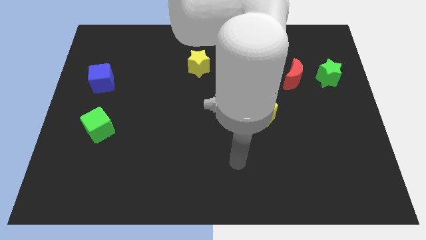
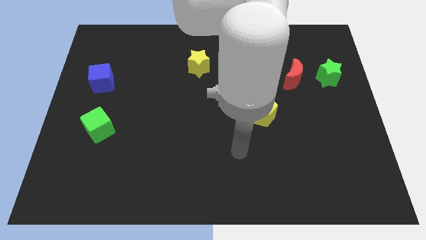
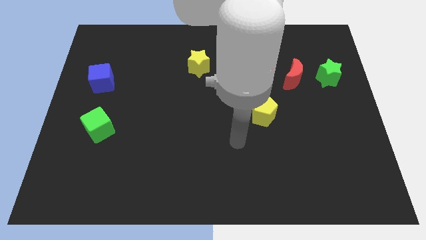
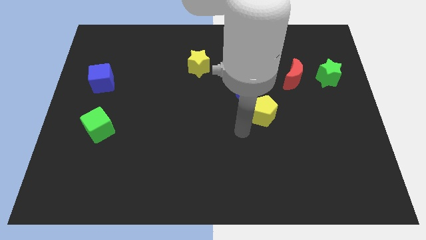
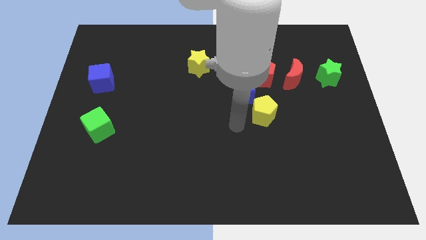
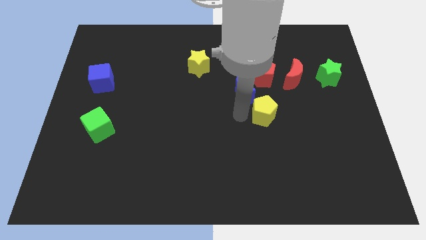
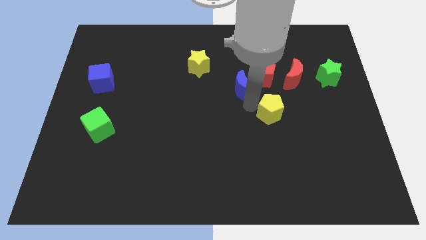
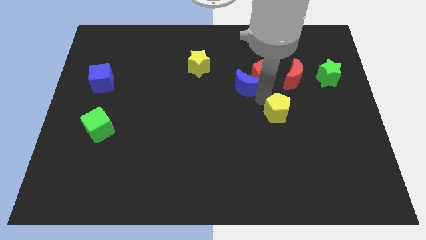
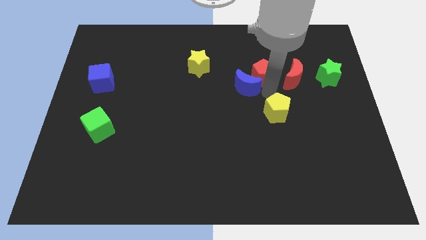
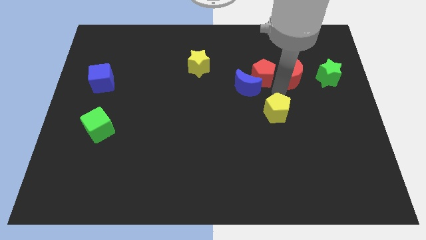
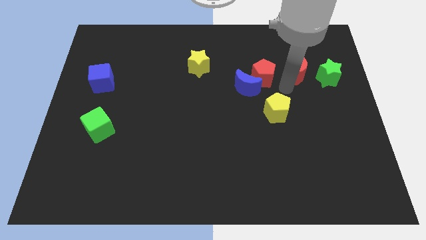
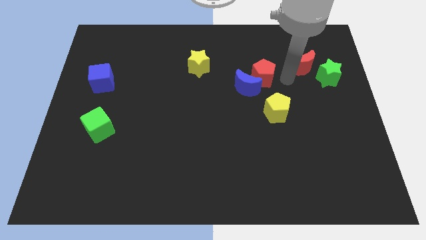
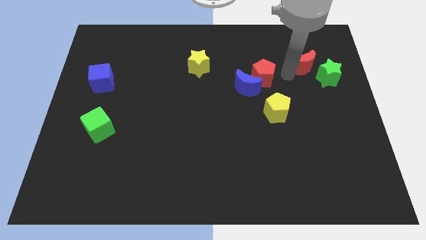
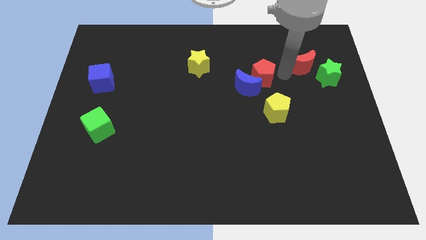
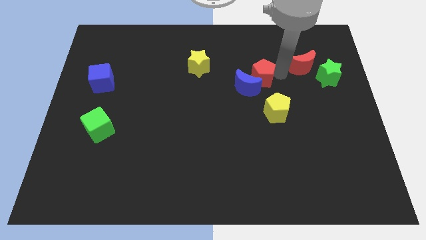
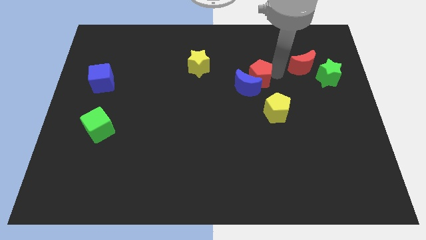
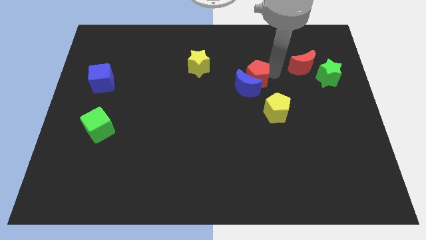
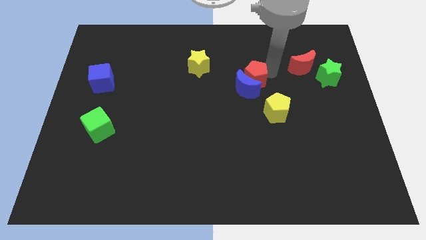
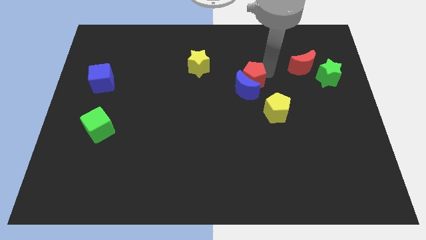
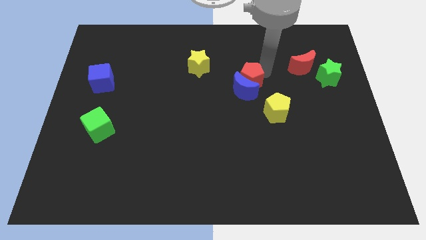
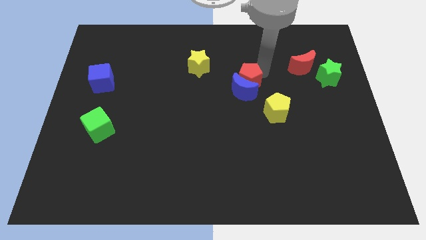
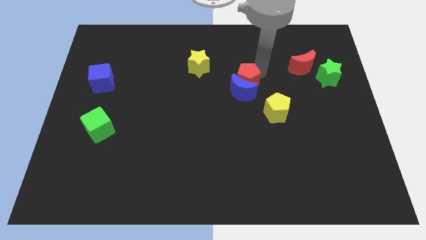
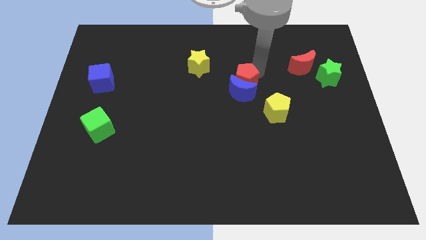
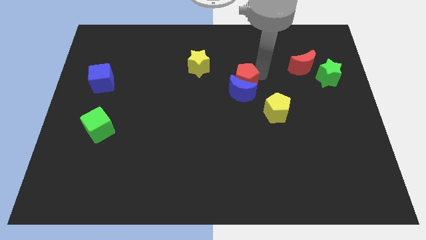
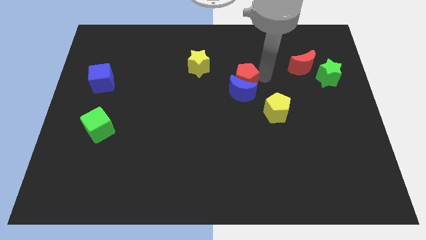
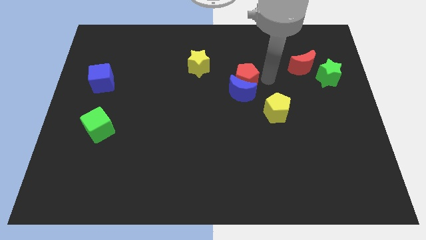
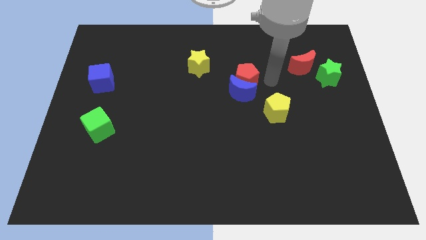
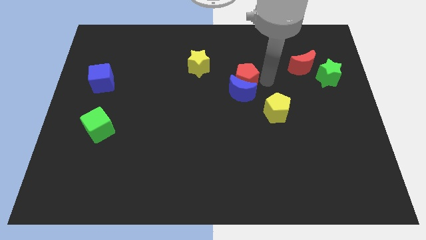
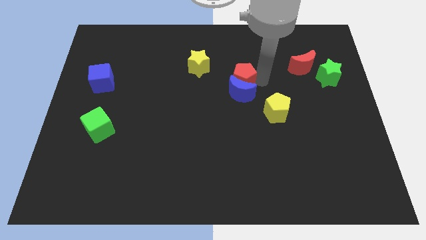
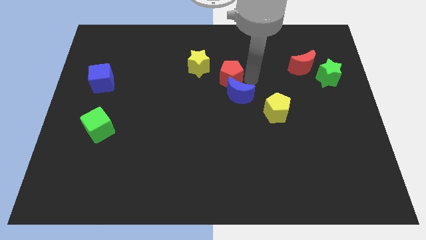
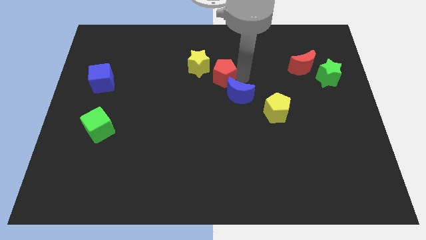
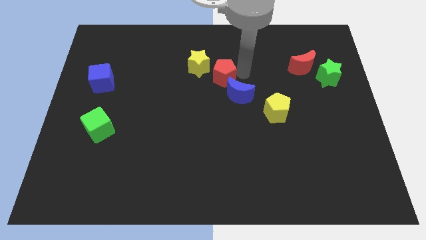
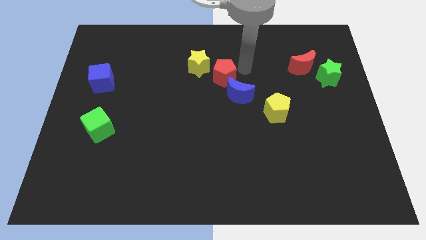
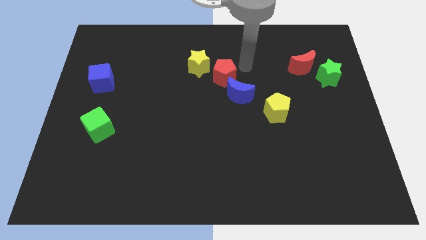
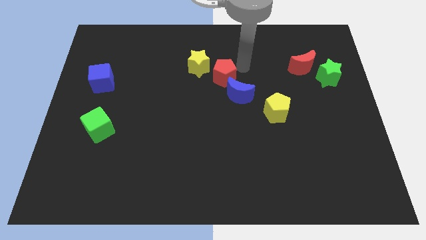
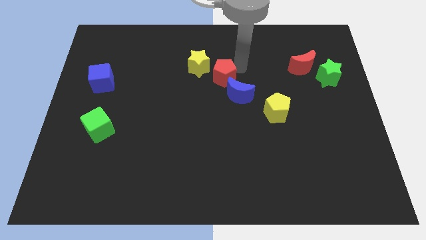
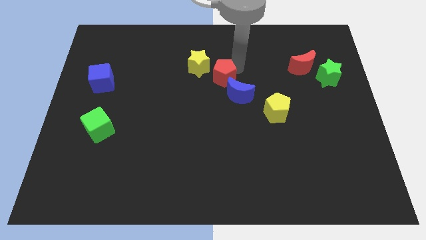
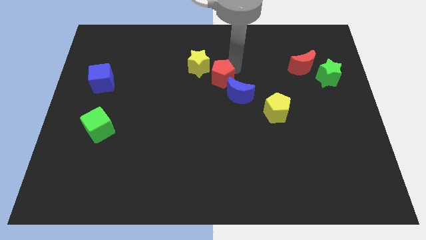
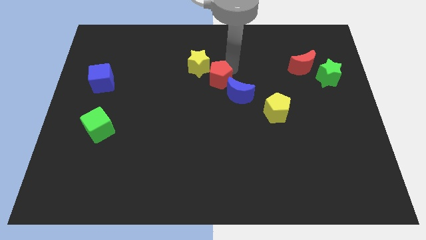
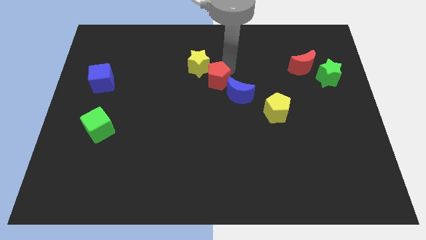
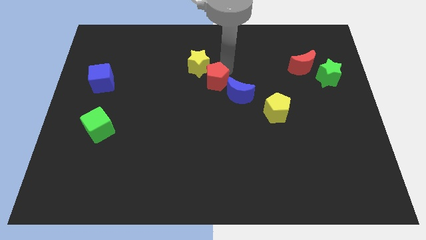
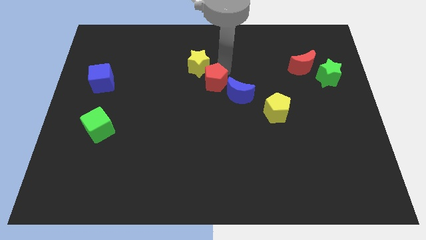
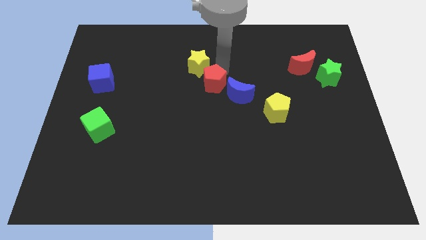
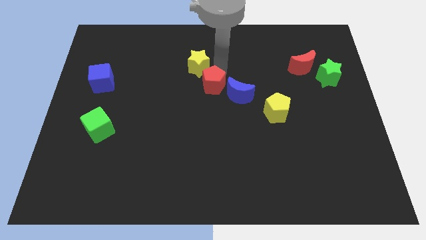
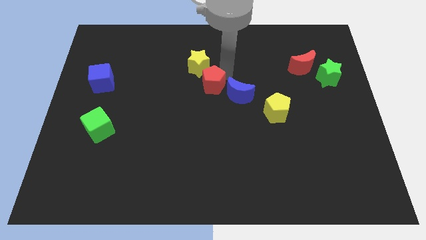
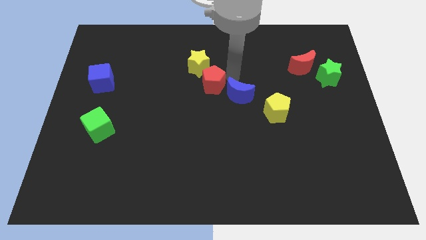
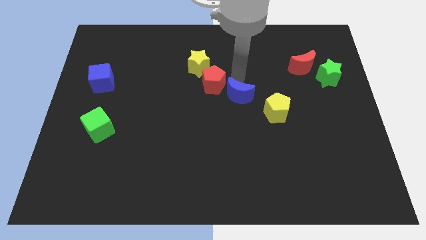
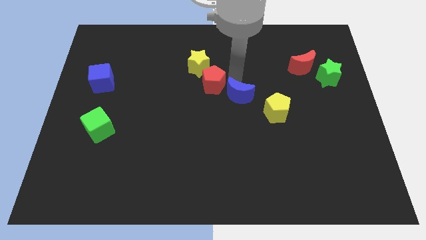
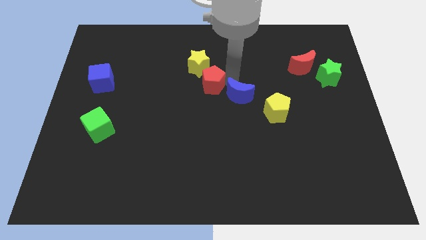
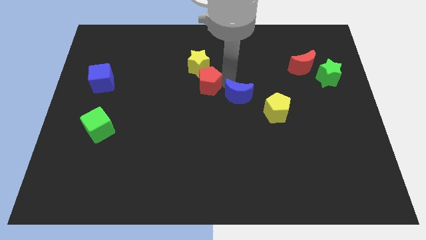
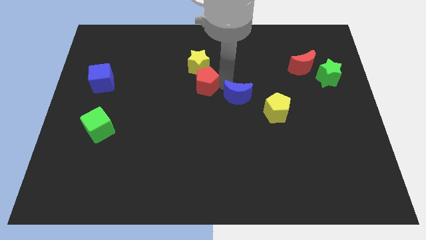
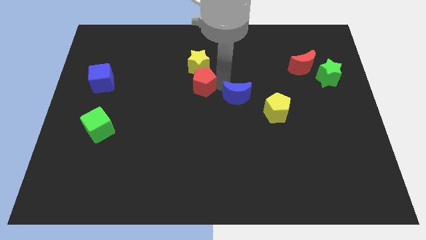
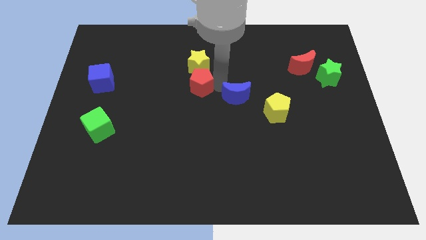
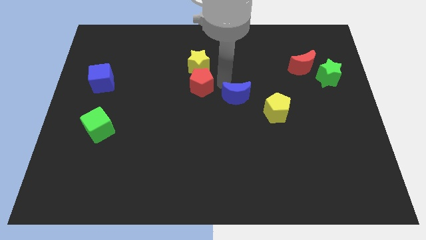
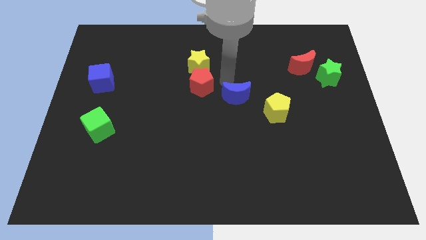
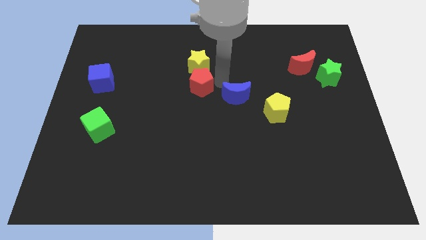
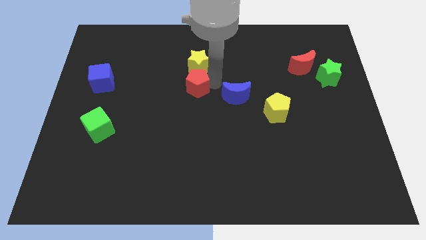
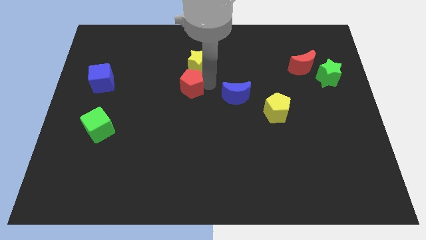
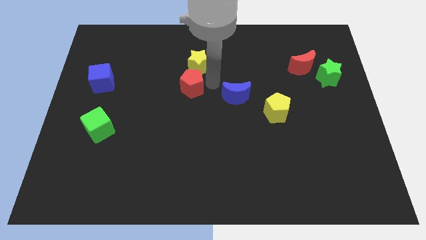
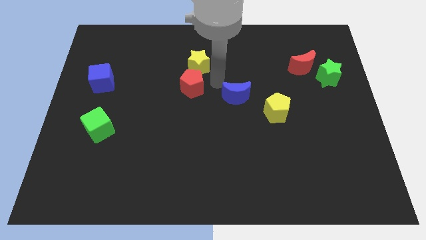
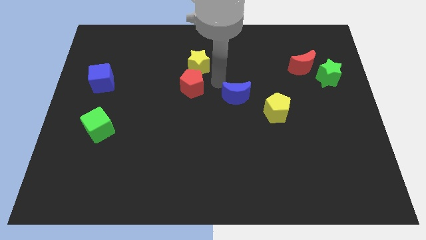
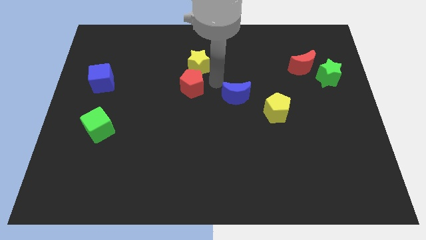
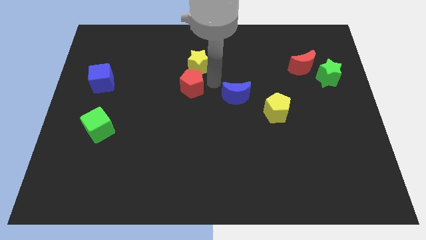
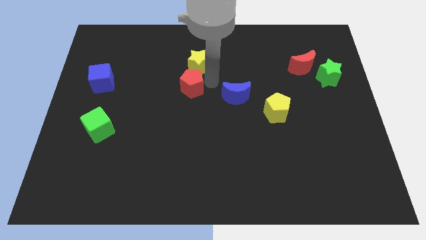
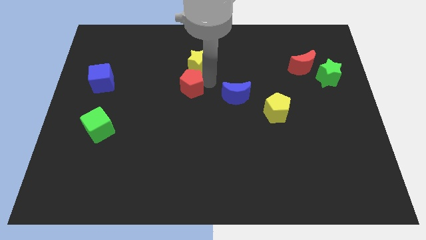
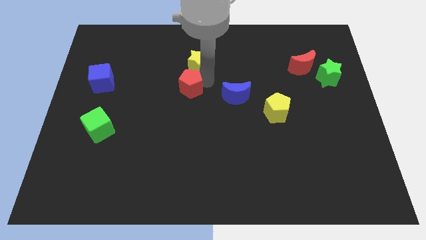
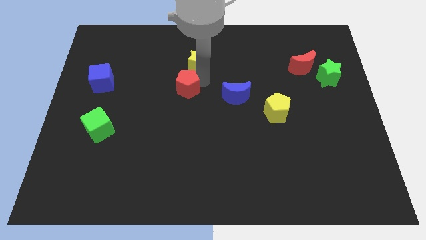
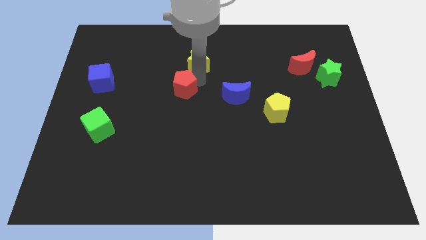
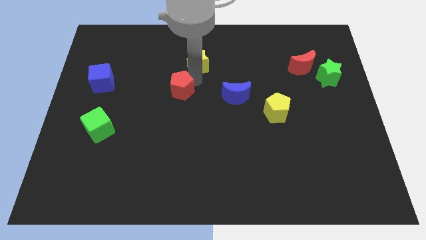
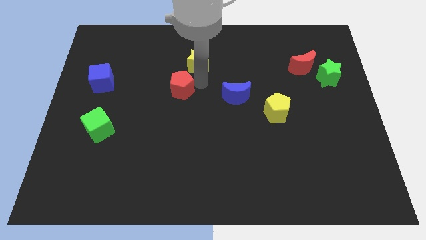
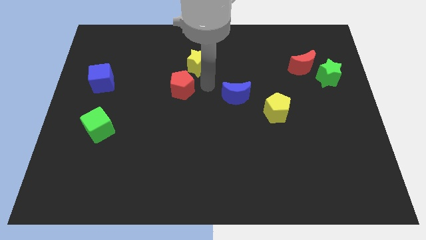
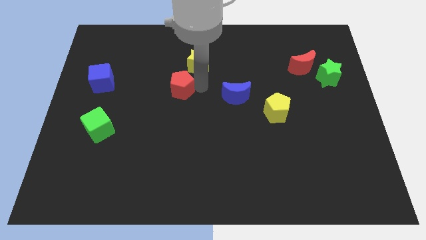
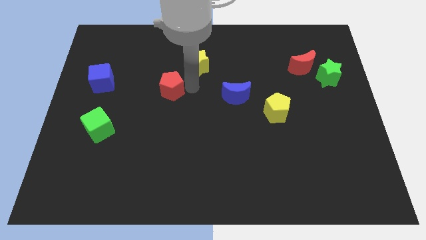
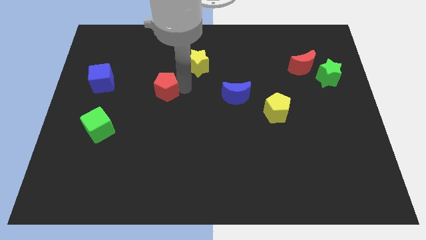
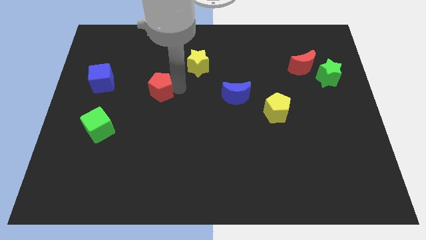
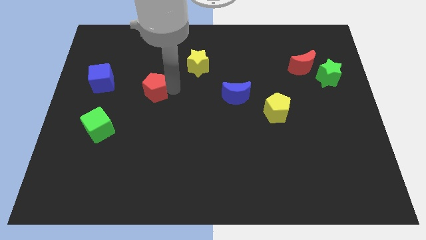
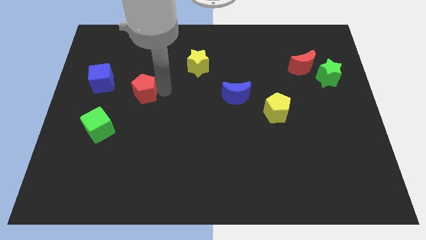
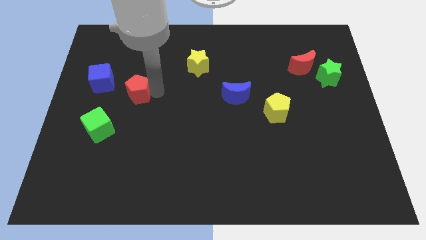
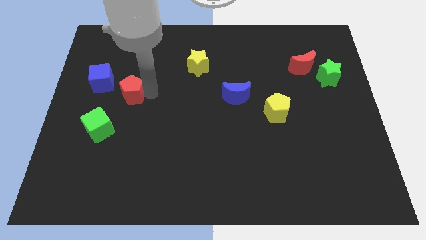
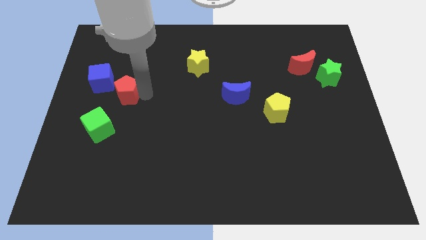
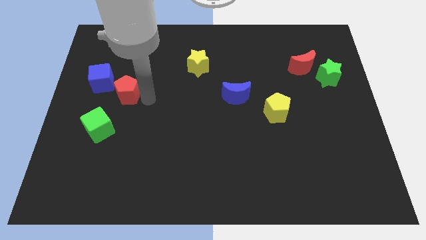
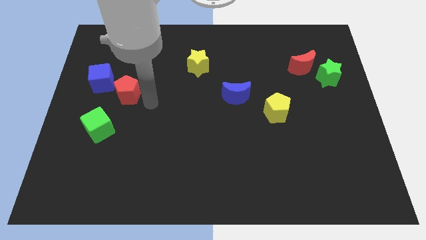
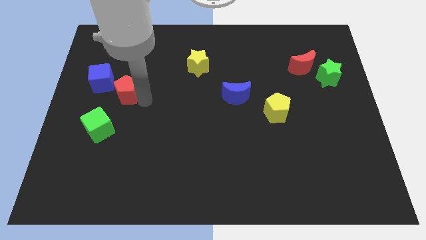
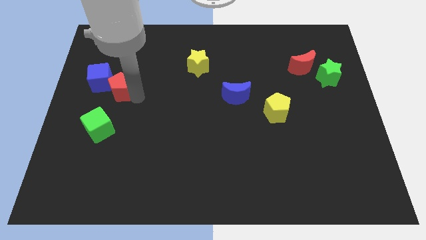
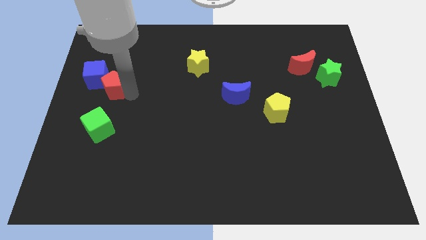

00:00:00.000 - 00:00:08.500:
put the red pentagon next to the blue cube
